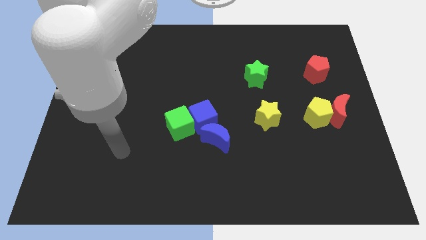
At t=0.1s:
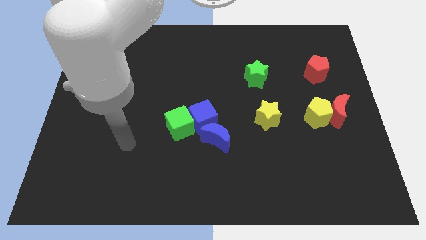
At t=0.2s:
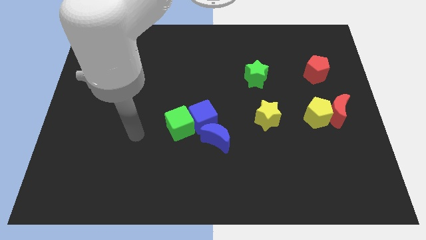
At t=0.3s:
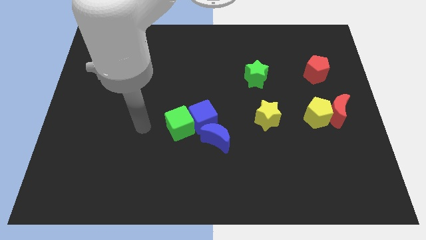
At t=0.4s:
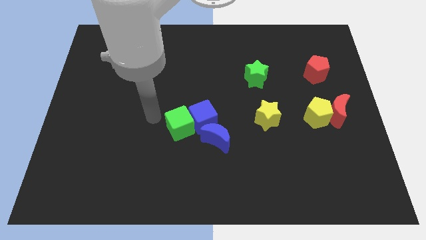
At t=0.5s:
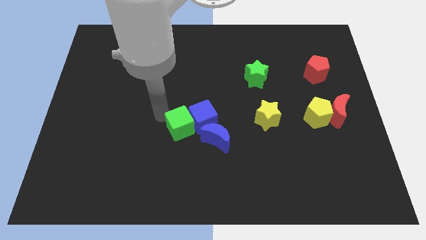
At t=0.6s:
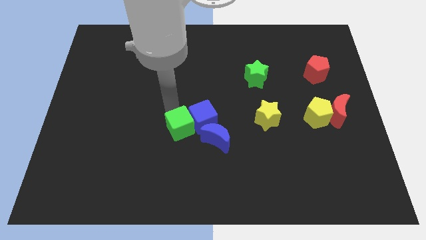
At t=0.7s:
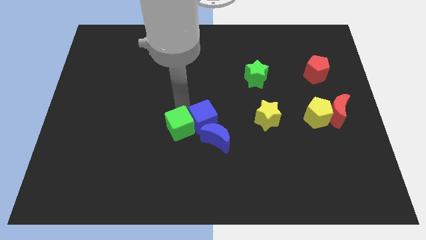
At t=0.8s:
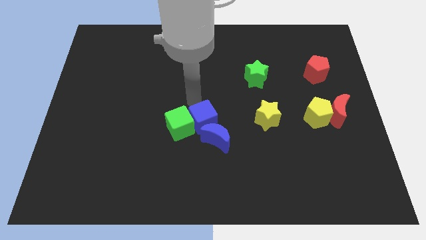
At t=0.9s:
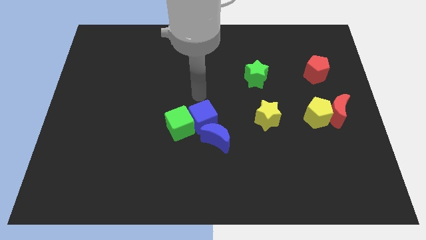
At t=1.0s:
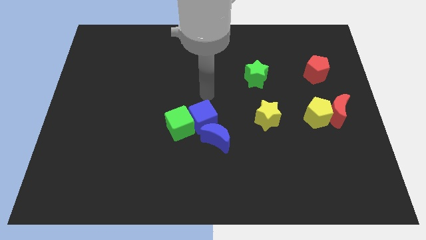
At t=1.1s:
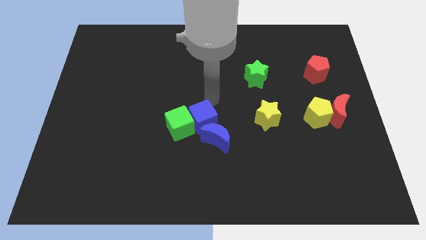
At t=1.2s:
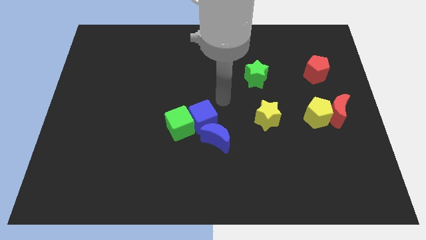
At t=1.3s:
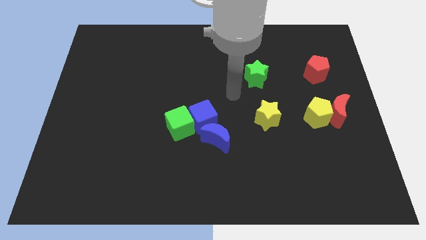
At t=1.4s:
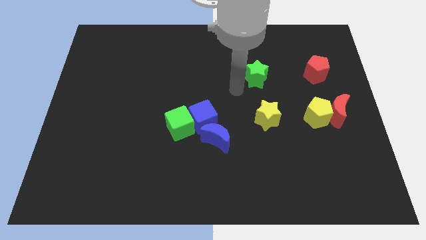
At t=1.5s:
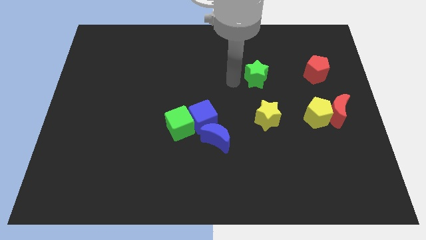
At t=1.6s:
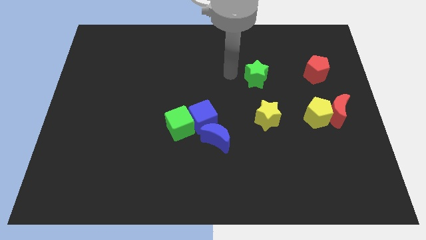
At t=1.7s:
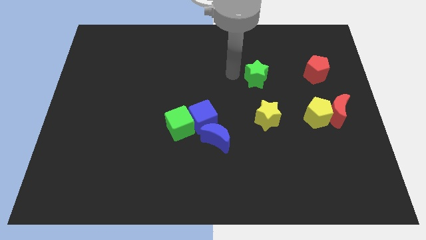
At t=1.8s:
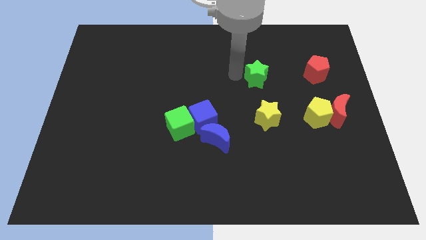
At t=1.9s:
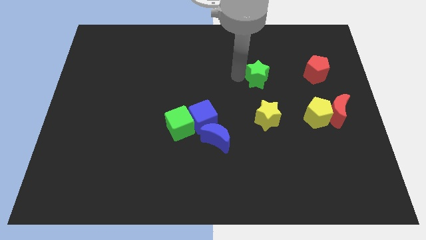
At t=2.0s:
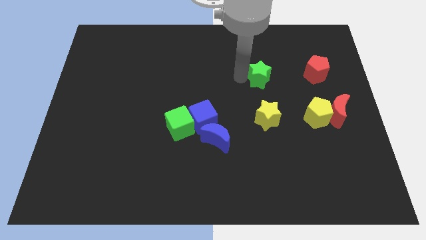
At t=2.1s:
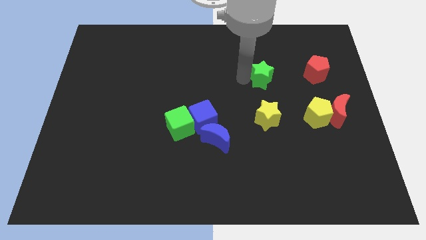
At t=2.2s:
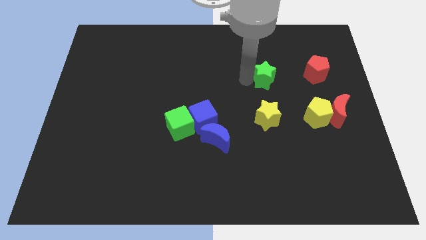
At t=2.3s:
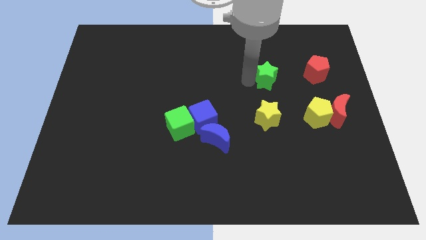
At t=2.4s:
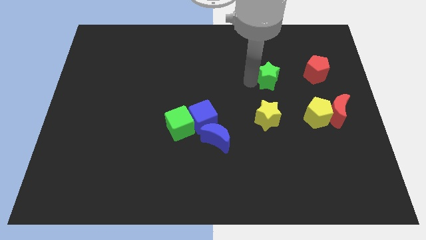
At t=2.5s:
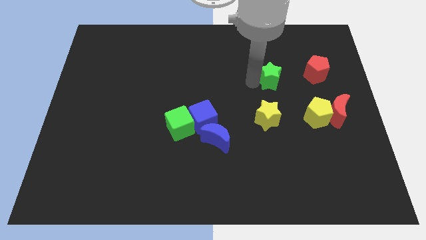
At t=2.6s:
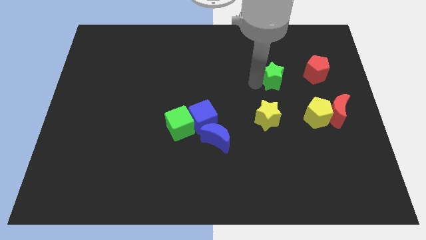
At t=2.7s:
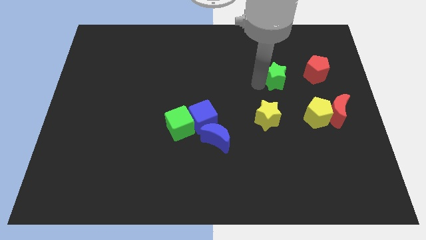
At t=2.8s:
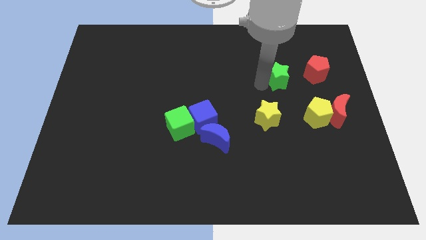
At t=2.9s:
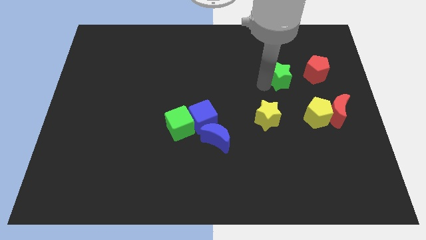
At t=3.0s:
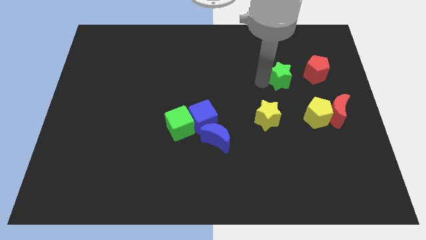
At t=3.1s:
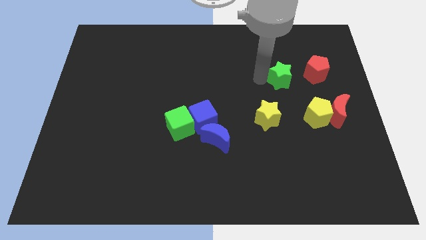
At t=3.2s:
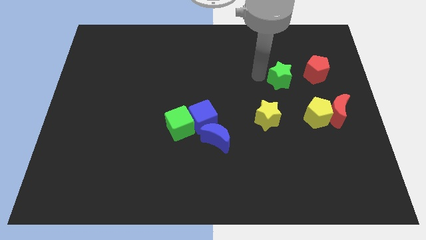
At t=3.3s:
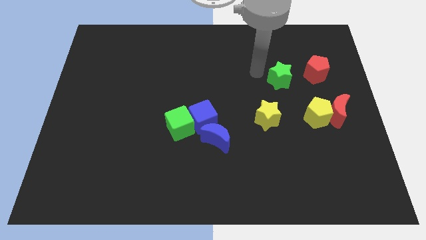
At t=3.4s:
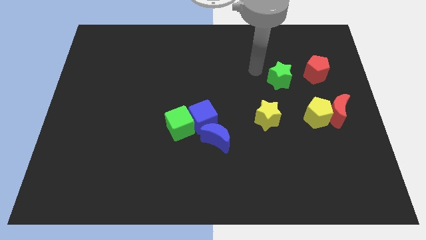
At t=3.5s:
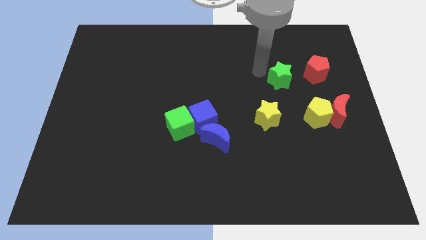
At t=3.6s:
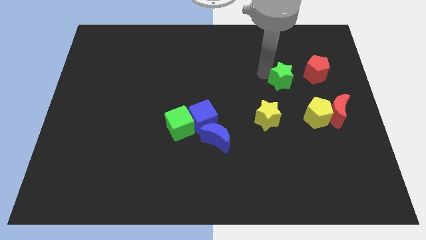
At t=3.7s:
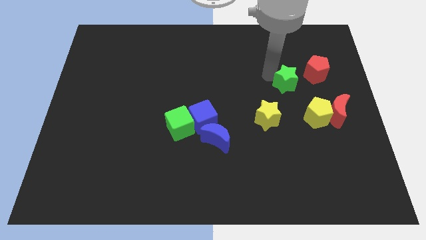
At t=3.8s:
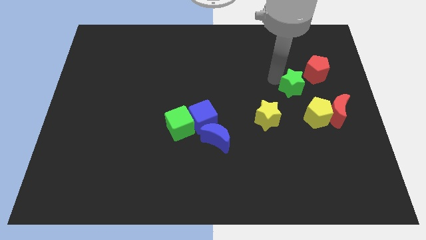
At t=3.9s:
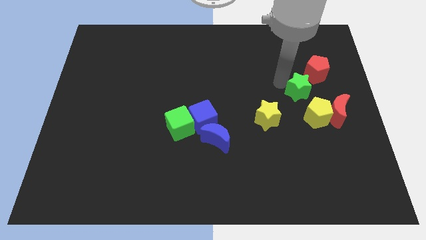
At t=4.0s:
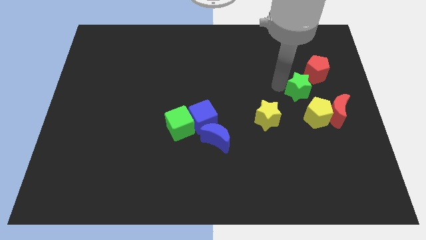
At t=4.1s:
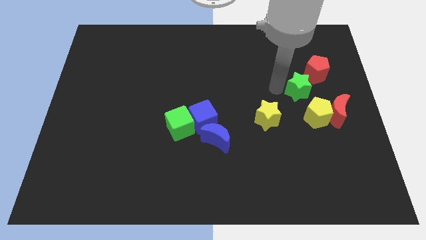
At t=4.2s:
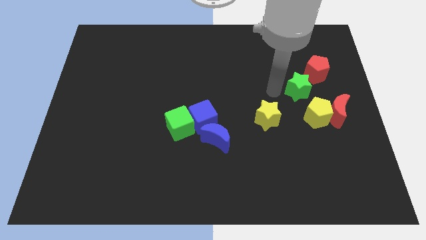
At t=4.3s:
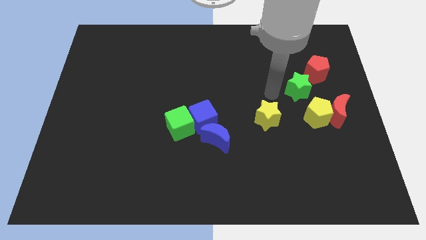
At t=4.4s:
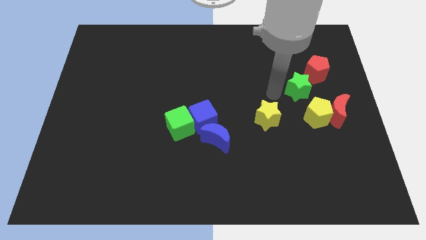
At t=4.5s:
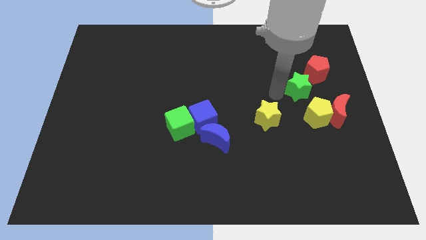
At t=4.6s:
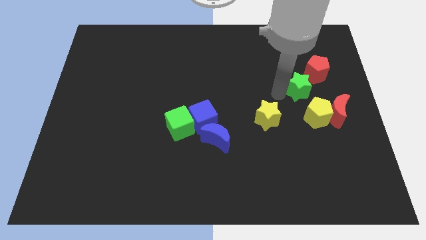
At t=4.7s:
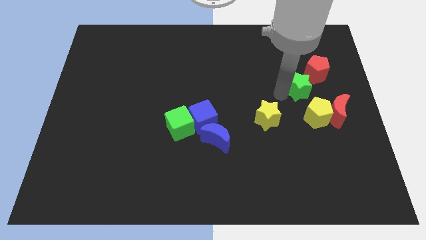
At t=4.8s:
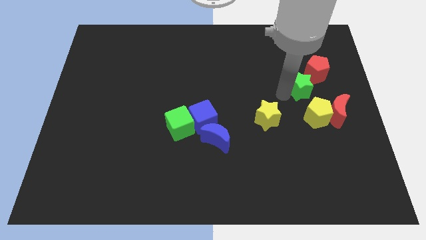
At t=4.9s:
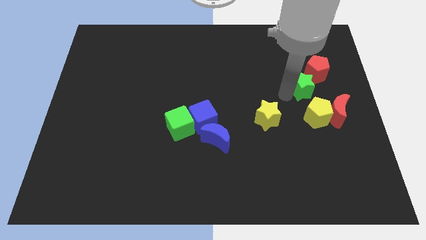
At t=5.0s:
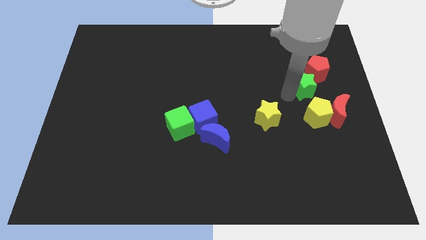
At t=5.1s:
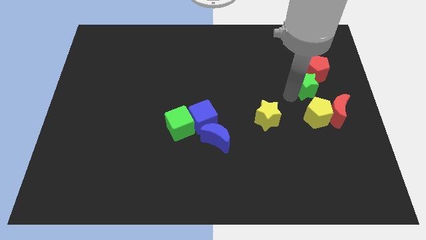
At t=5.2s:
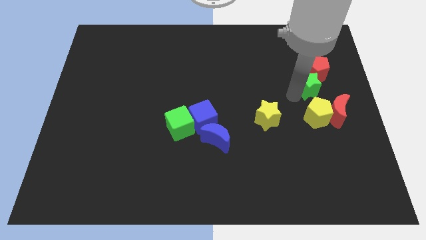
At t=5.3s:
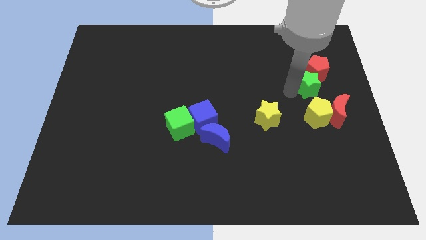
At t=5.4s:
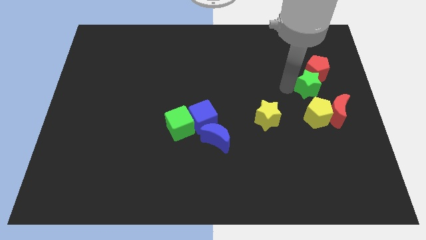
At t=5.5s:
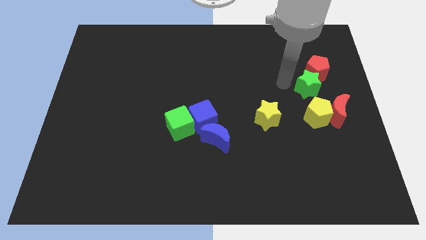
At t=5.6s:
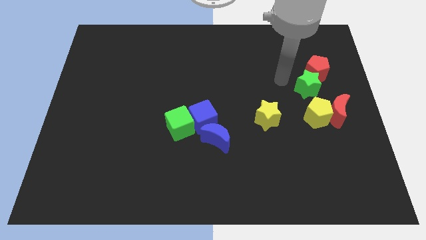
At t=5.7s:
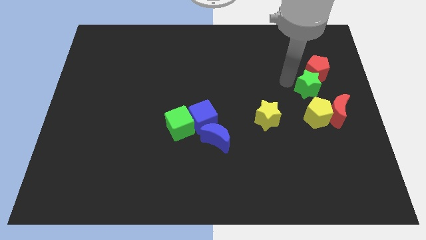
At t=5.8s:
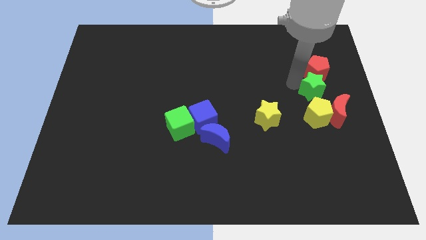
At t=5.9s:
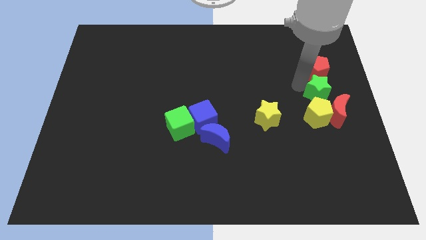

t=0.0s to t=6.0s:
slide the green star to the right side

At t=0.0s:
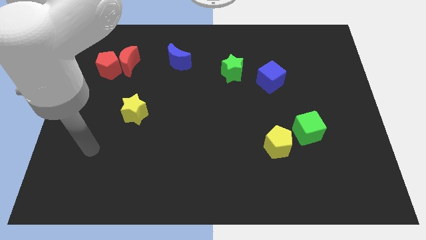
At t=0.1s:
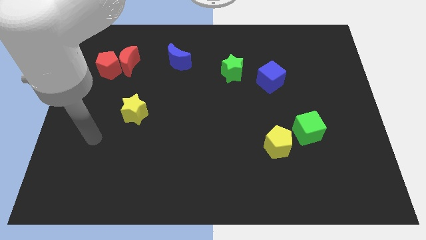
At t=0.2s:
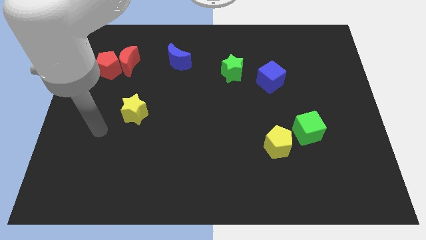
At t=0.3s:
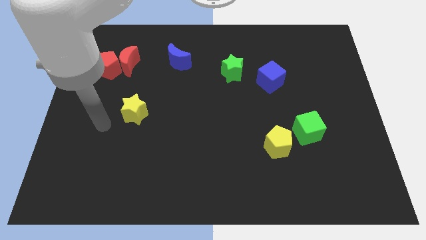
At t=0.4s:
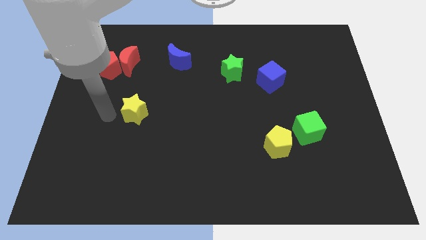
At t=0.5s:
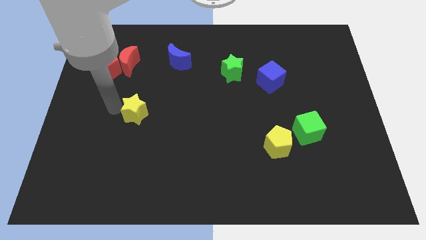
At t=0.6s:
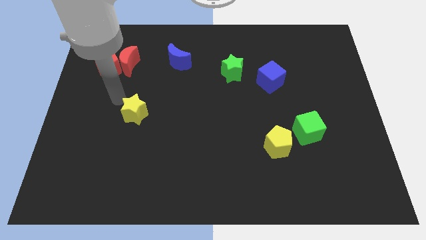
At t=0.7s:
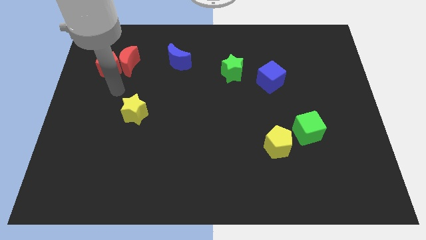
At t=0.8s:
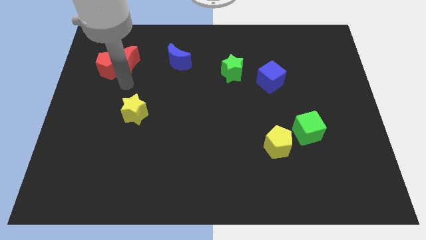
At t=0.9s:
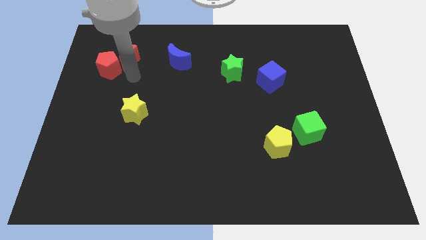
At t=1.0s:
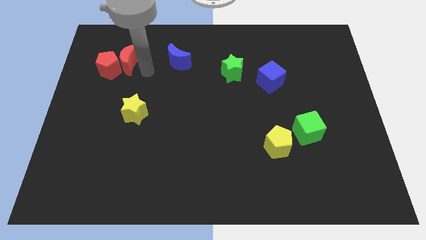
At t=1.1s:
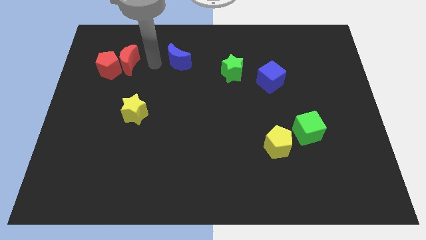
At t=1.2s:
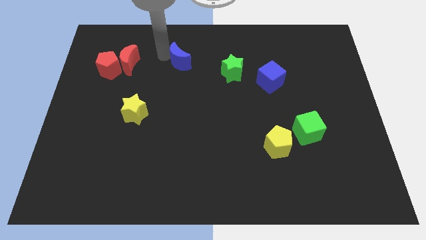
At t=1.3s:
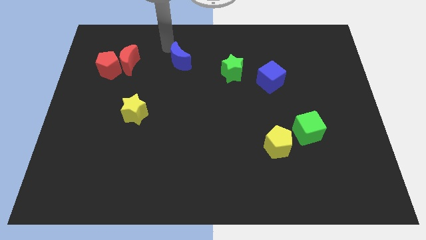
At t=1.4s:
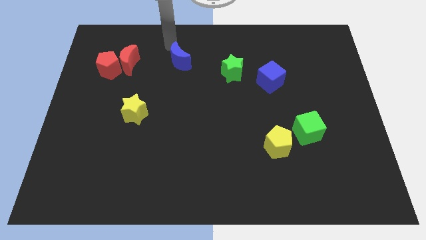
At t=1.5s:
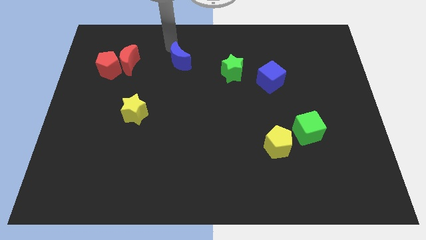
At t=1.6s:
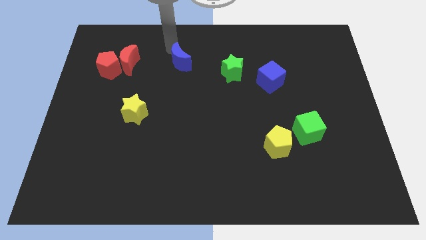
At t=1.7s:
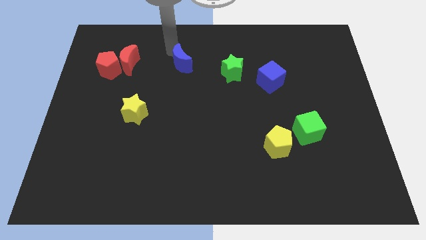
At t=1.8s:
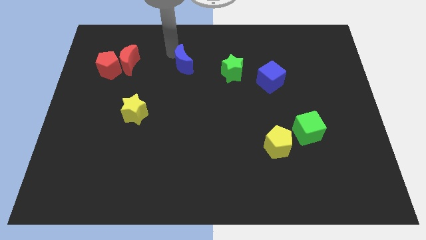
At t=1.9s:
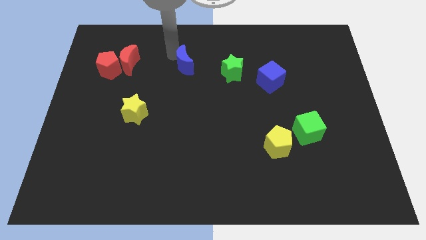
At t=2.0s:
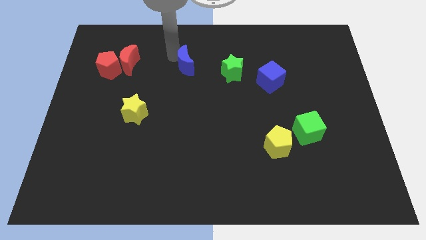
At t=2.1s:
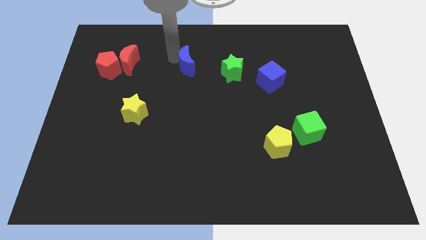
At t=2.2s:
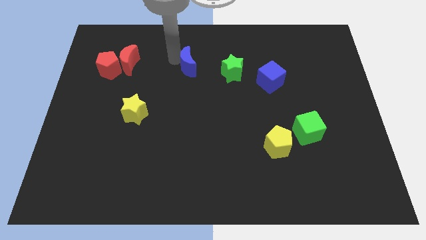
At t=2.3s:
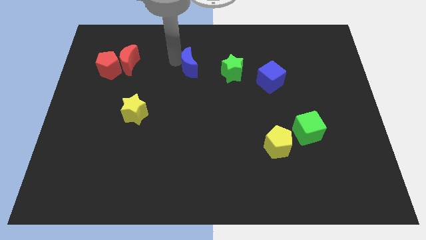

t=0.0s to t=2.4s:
slide the blue moon to the middle of the board
